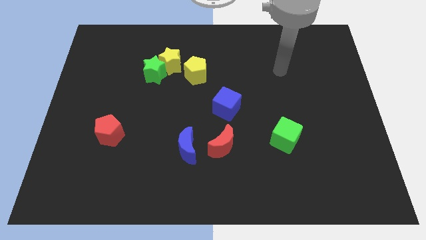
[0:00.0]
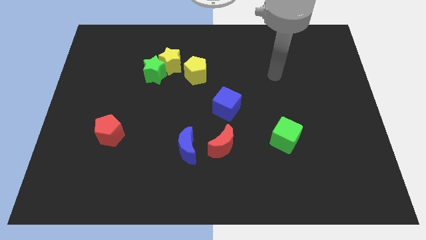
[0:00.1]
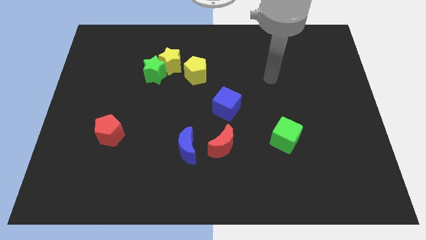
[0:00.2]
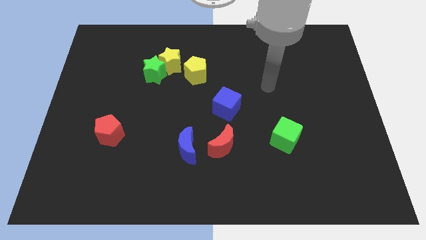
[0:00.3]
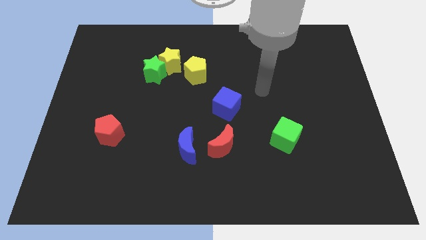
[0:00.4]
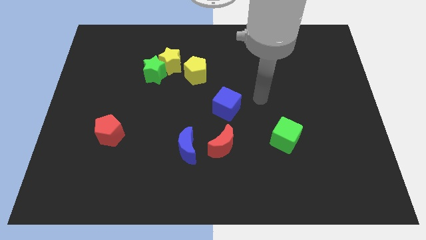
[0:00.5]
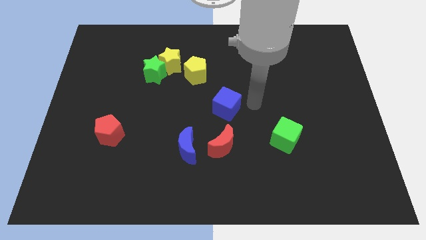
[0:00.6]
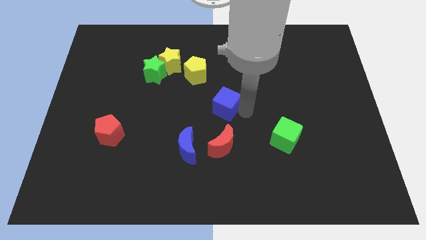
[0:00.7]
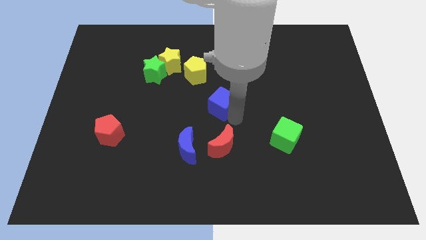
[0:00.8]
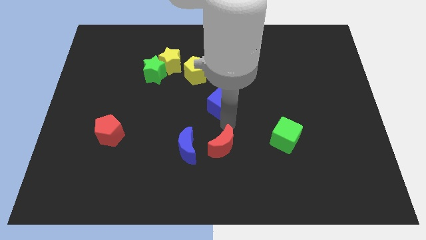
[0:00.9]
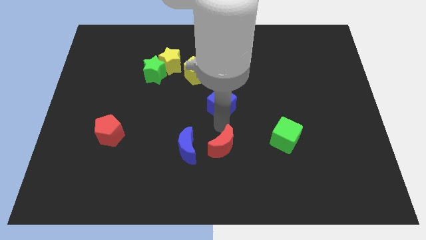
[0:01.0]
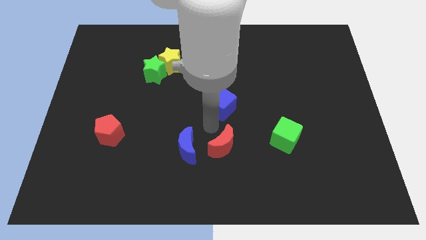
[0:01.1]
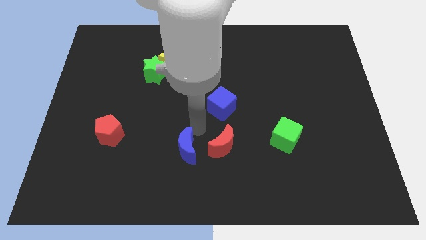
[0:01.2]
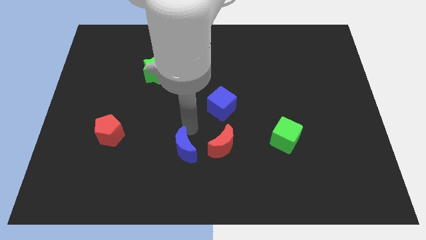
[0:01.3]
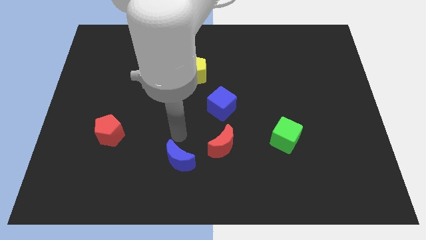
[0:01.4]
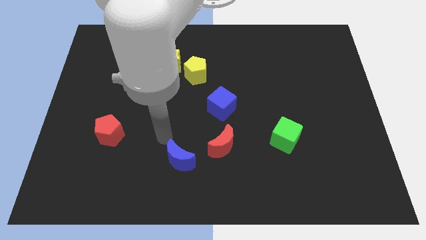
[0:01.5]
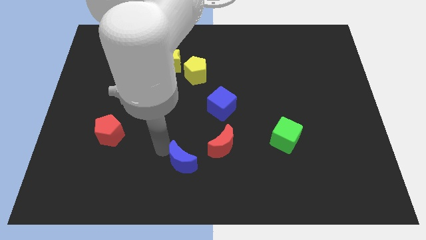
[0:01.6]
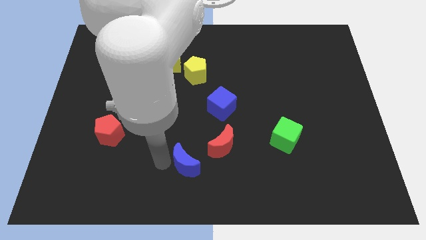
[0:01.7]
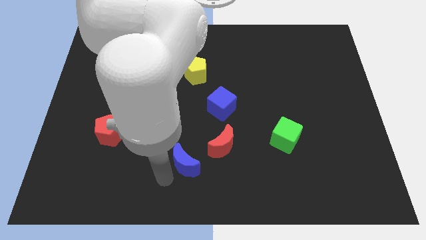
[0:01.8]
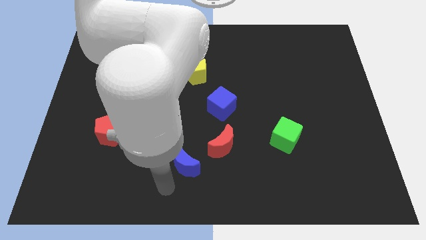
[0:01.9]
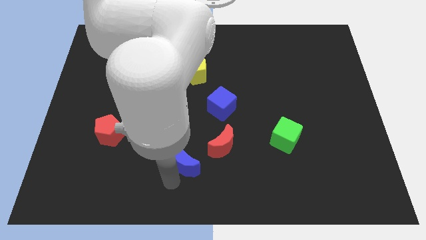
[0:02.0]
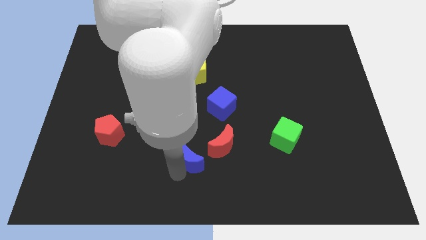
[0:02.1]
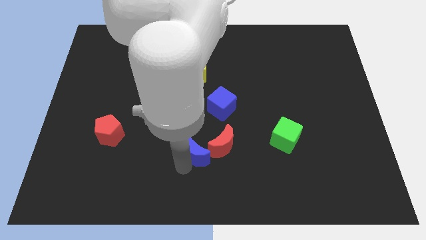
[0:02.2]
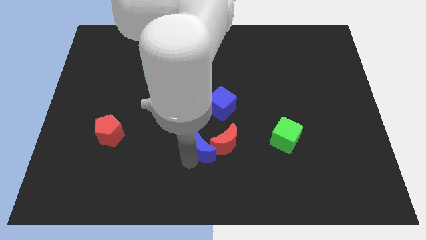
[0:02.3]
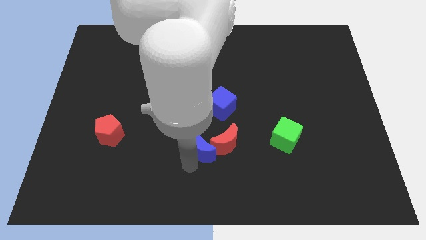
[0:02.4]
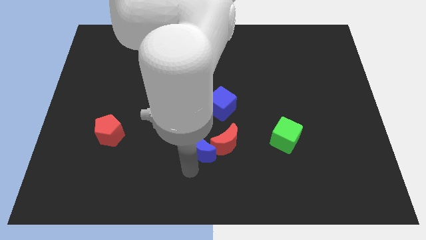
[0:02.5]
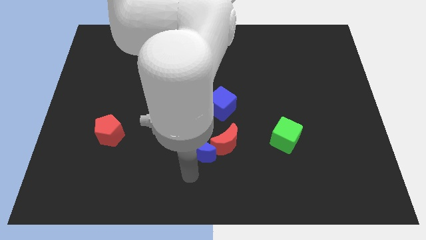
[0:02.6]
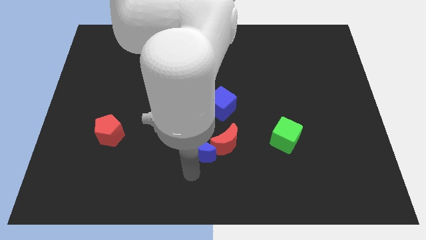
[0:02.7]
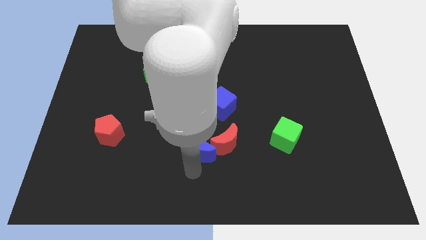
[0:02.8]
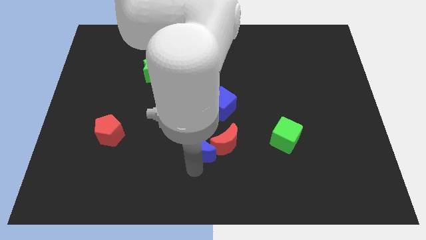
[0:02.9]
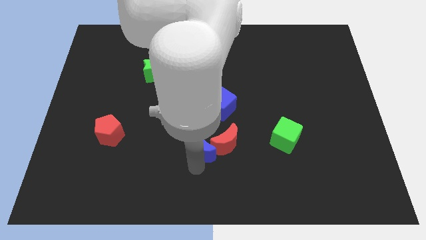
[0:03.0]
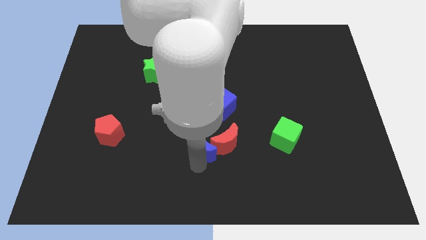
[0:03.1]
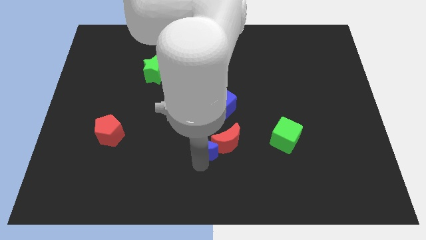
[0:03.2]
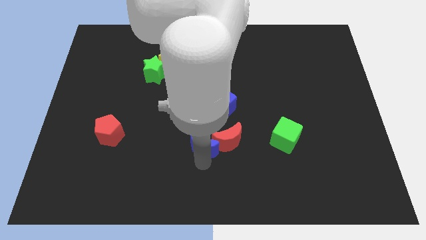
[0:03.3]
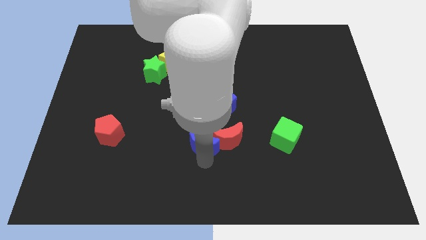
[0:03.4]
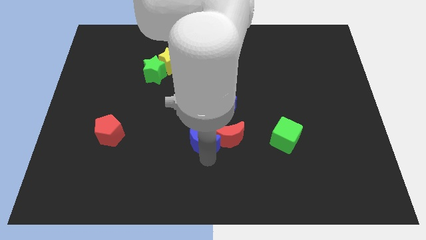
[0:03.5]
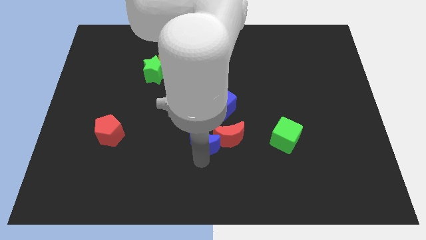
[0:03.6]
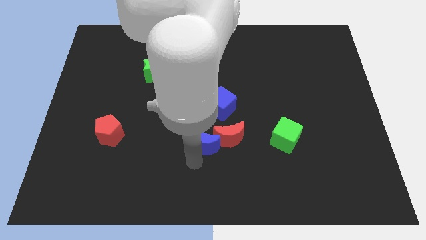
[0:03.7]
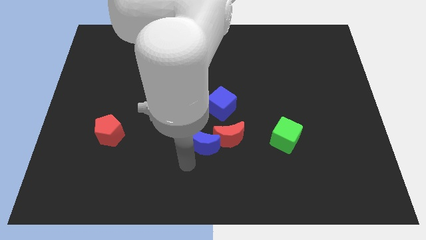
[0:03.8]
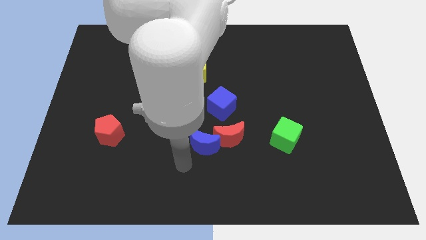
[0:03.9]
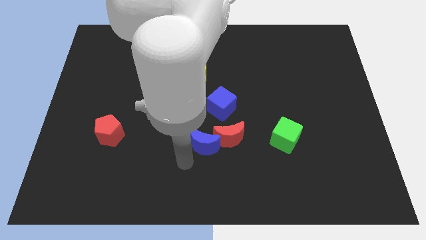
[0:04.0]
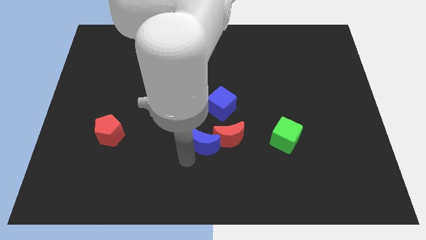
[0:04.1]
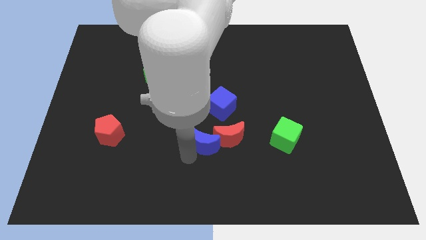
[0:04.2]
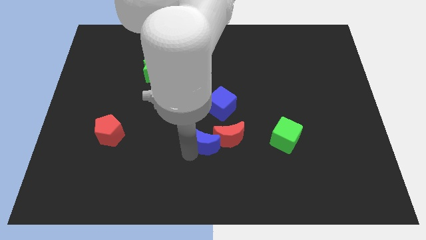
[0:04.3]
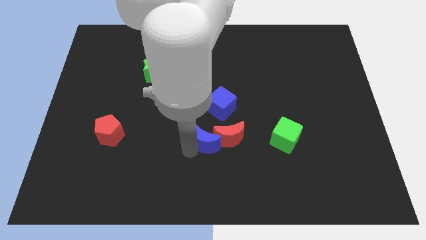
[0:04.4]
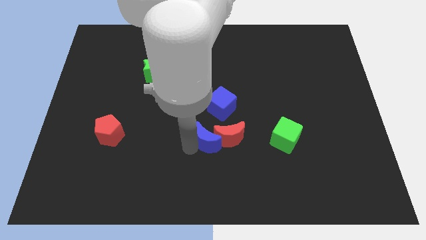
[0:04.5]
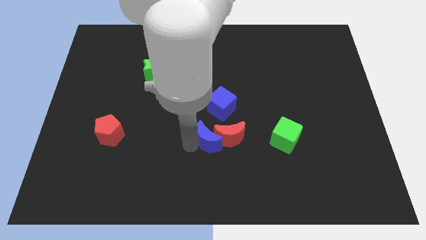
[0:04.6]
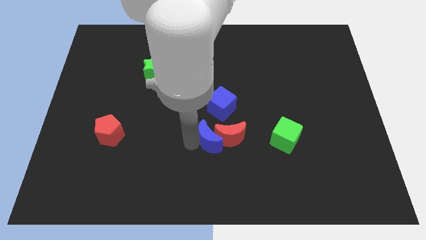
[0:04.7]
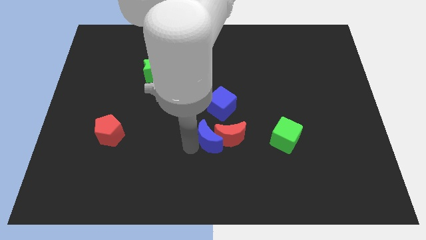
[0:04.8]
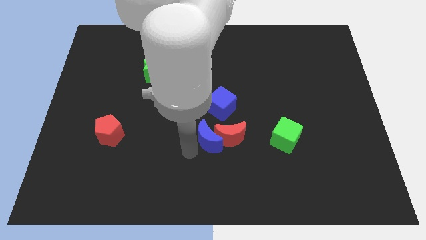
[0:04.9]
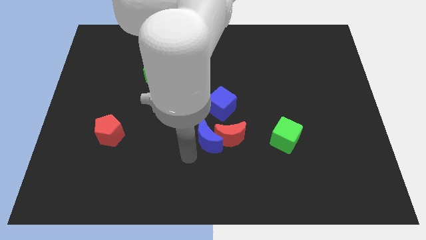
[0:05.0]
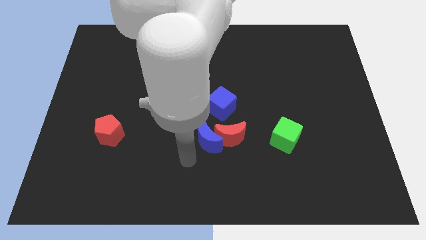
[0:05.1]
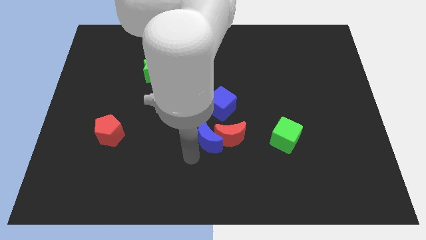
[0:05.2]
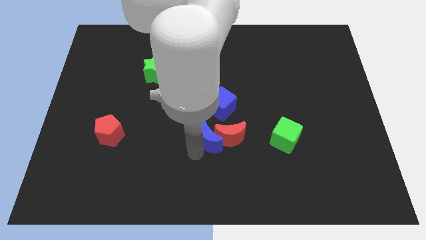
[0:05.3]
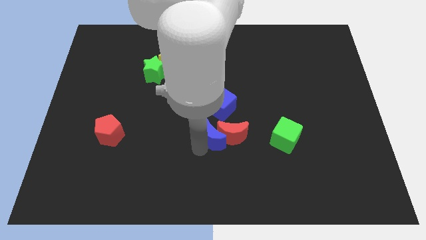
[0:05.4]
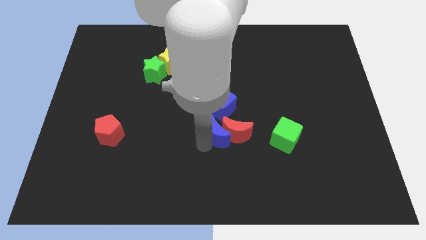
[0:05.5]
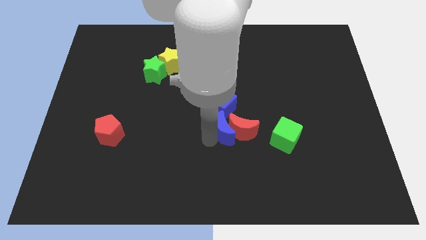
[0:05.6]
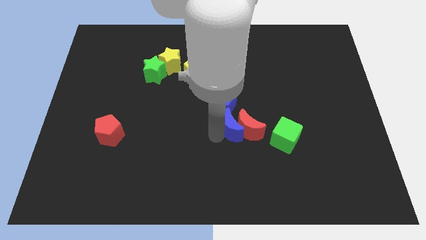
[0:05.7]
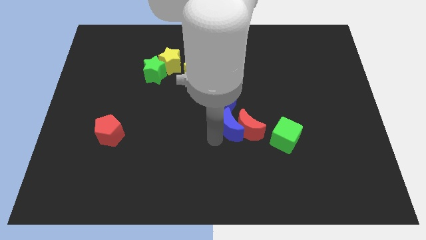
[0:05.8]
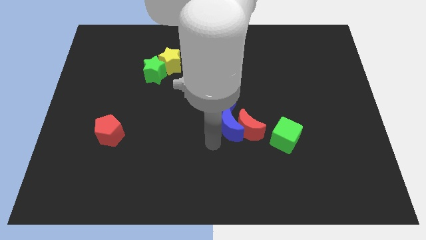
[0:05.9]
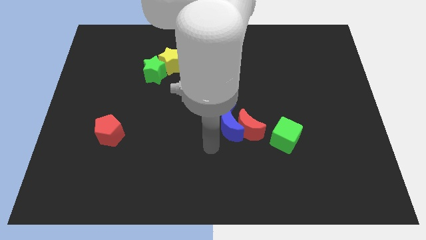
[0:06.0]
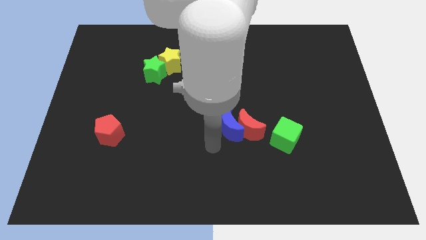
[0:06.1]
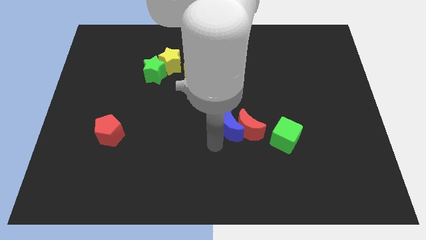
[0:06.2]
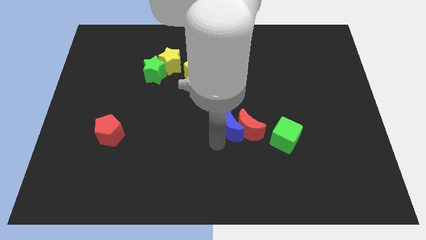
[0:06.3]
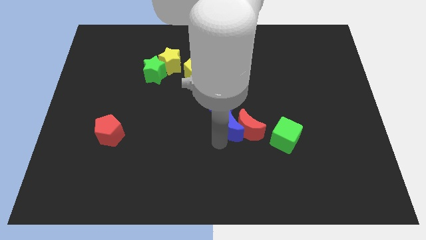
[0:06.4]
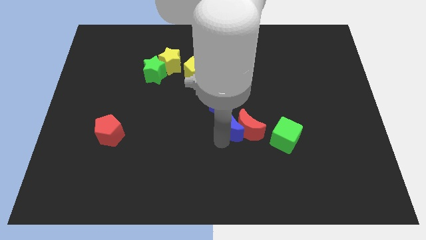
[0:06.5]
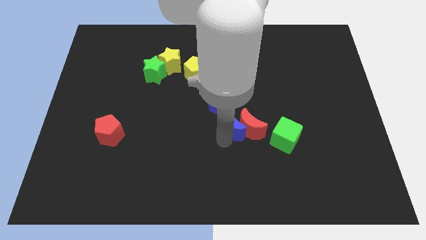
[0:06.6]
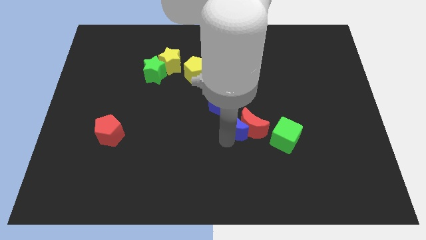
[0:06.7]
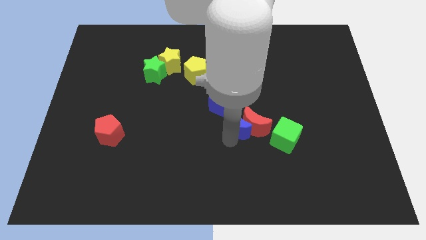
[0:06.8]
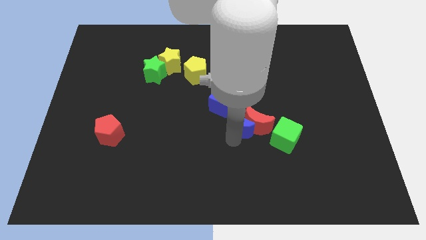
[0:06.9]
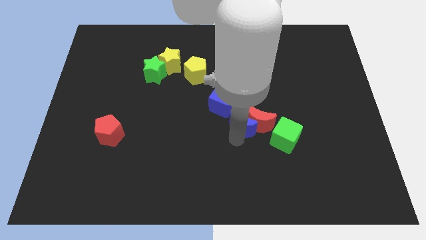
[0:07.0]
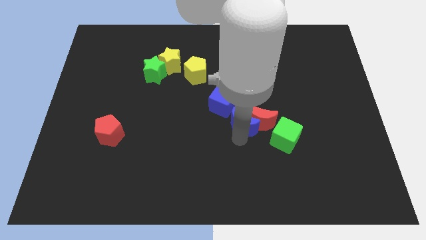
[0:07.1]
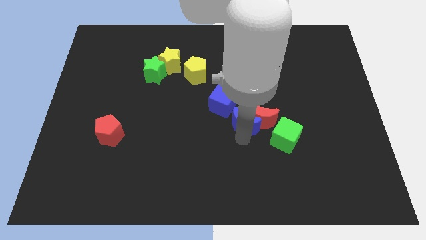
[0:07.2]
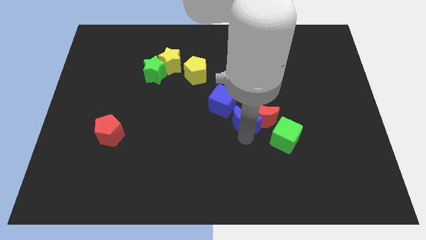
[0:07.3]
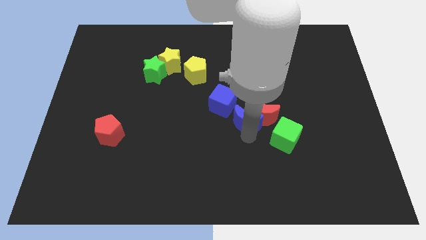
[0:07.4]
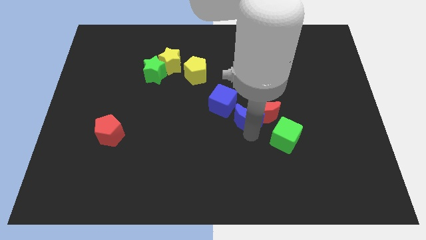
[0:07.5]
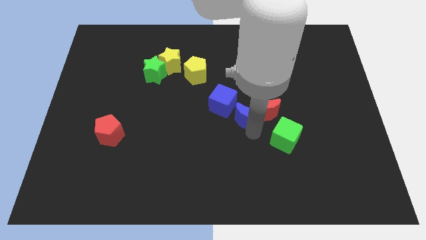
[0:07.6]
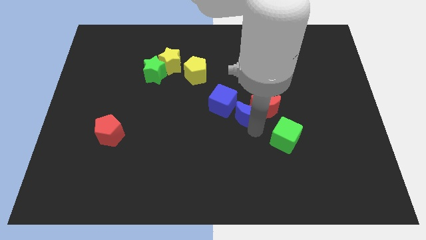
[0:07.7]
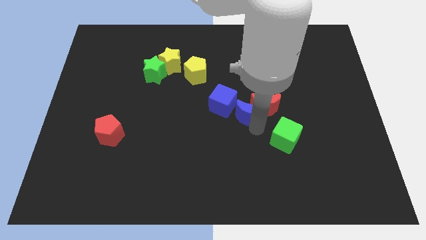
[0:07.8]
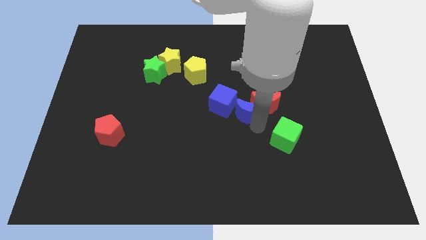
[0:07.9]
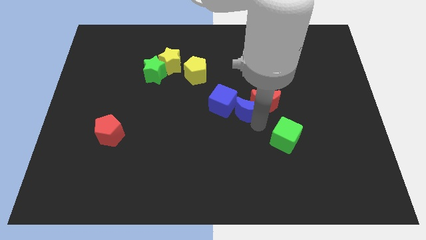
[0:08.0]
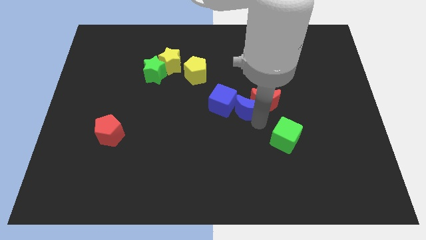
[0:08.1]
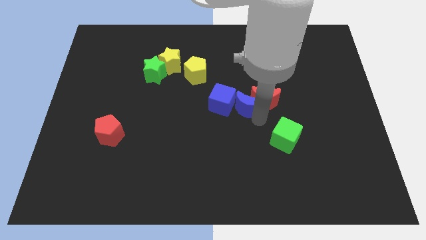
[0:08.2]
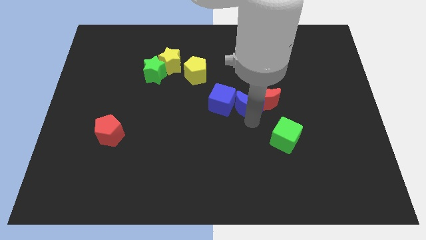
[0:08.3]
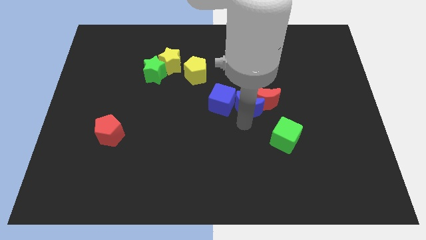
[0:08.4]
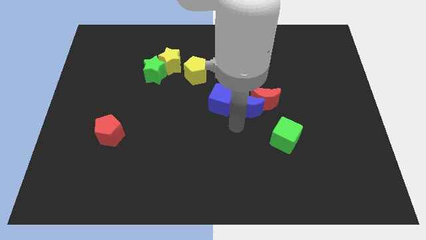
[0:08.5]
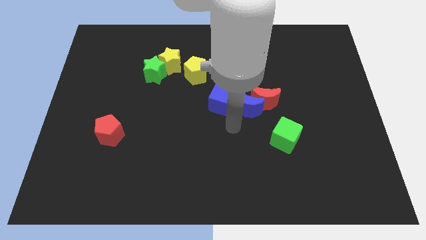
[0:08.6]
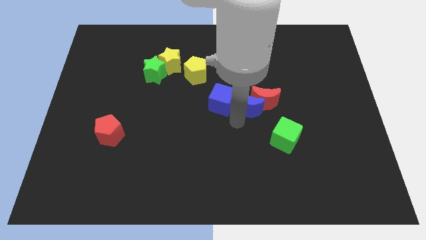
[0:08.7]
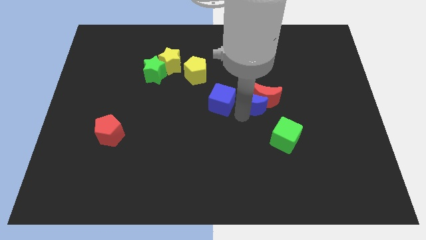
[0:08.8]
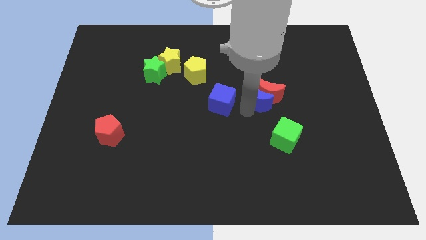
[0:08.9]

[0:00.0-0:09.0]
slide the blue moon diagonally upwards and to the right
